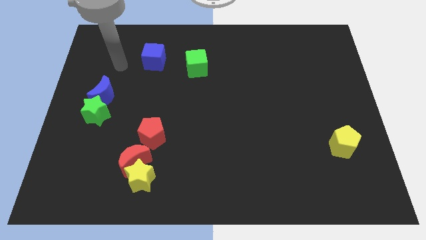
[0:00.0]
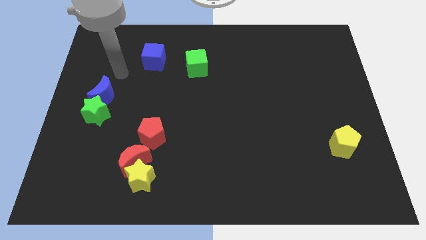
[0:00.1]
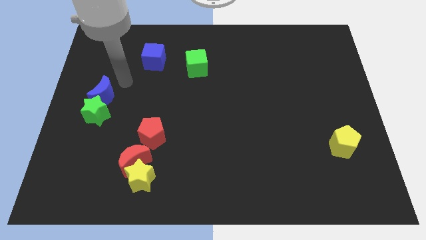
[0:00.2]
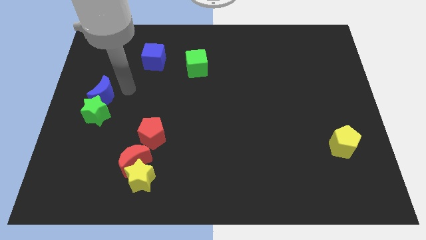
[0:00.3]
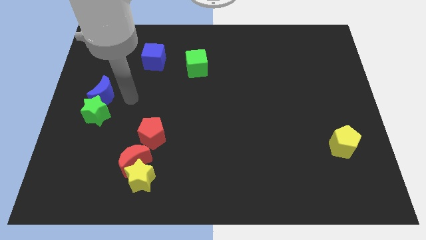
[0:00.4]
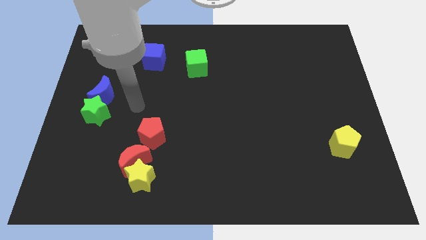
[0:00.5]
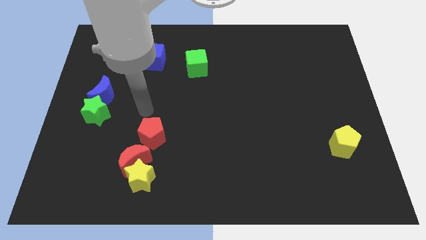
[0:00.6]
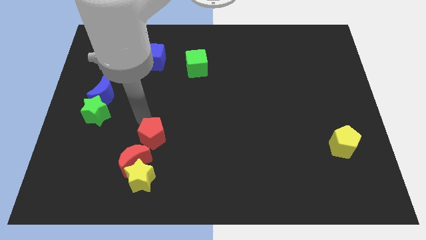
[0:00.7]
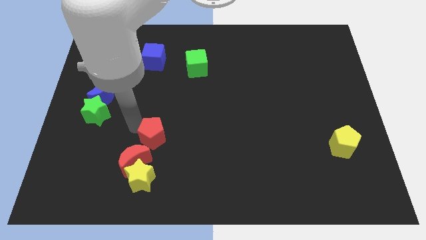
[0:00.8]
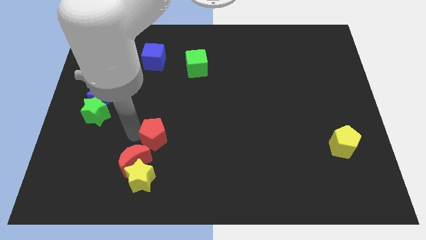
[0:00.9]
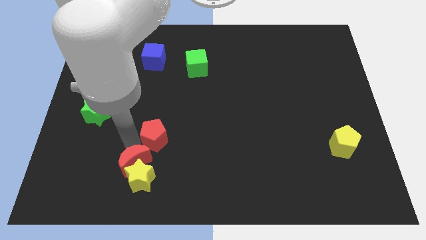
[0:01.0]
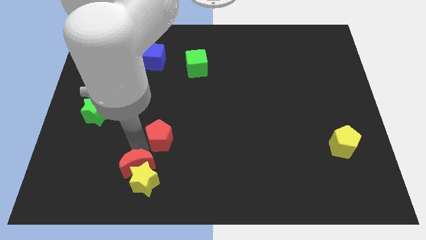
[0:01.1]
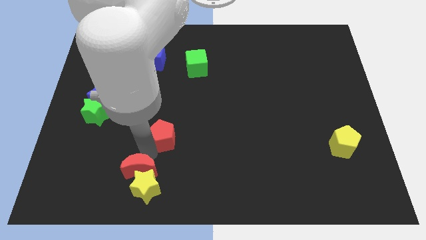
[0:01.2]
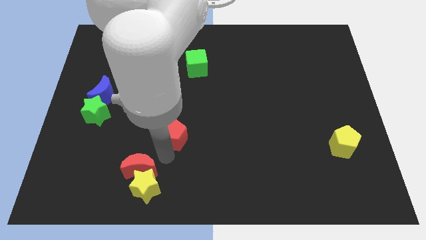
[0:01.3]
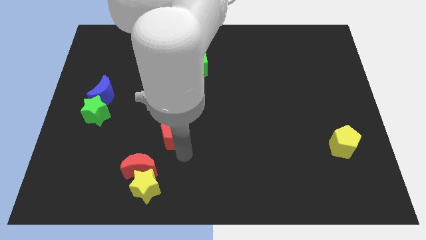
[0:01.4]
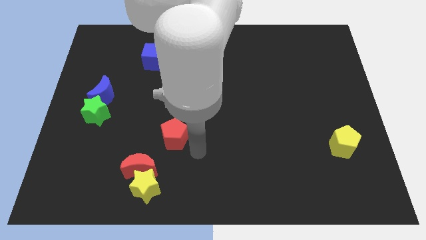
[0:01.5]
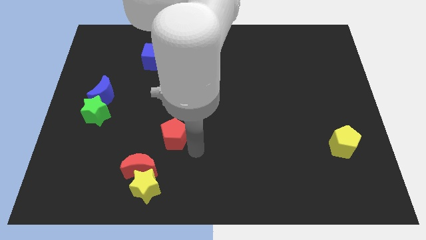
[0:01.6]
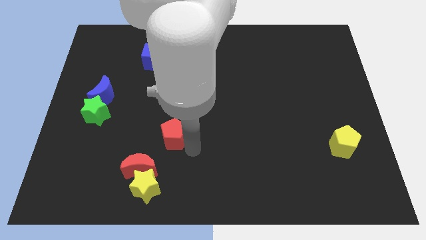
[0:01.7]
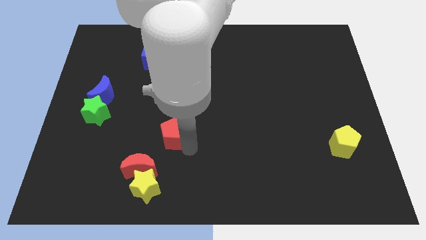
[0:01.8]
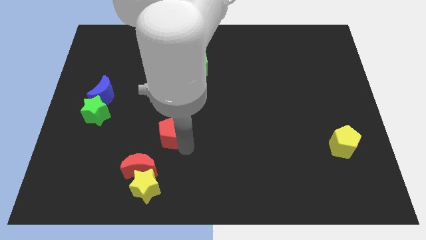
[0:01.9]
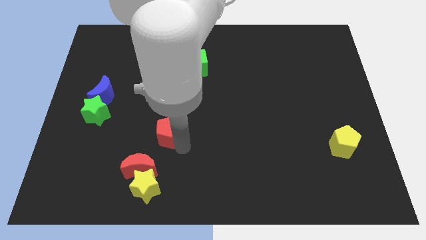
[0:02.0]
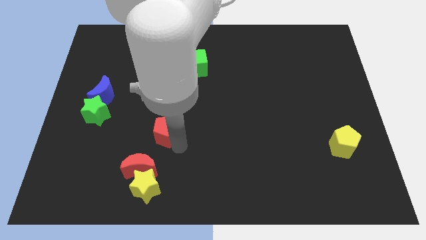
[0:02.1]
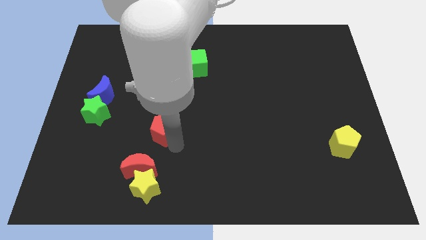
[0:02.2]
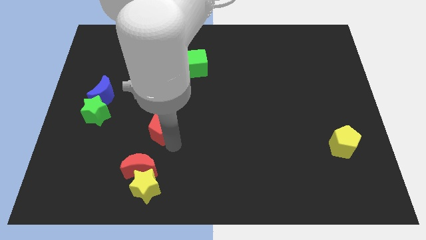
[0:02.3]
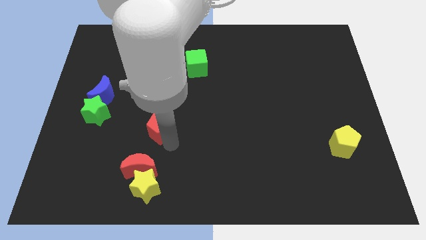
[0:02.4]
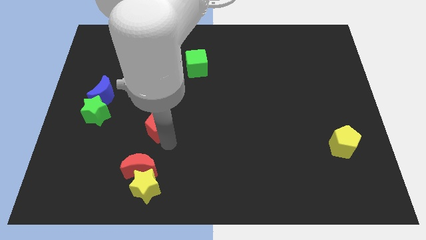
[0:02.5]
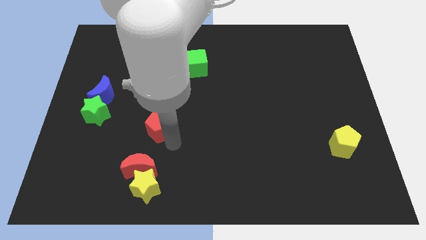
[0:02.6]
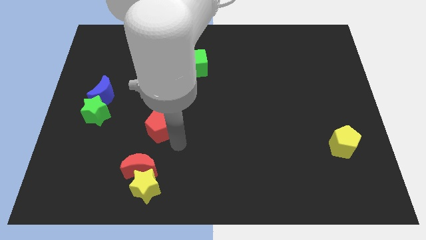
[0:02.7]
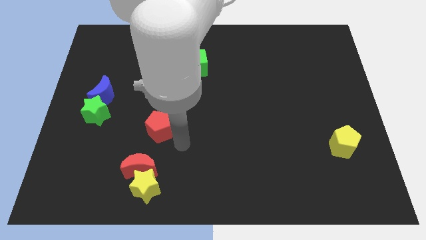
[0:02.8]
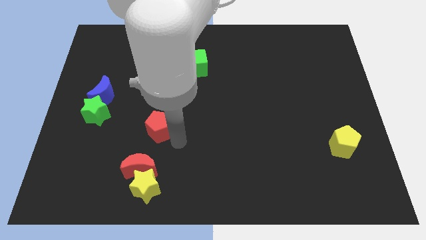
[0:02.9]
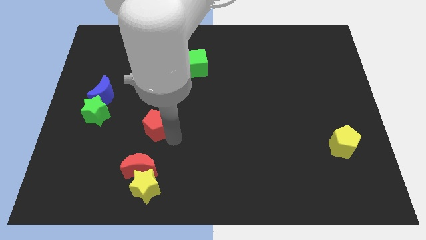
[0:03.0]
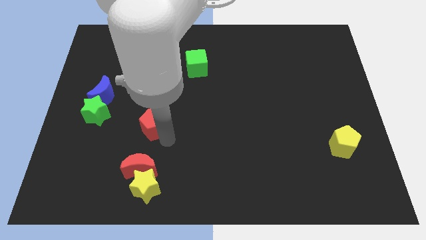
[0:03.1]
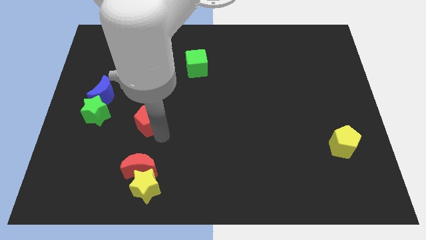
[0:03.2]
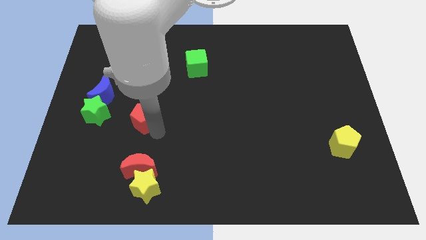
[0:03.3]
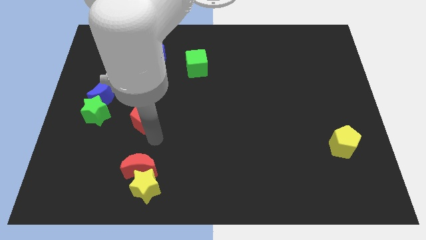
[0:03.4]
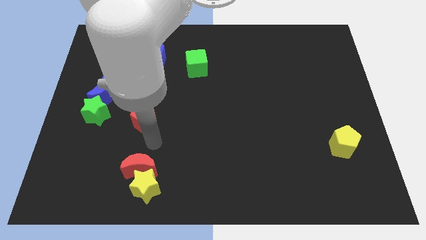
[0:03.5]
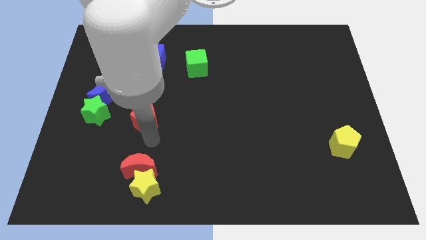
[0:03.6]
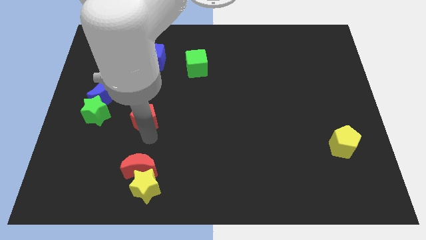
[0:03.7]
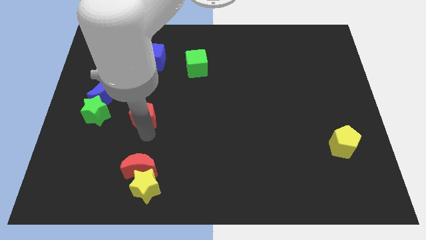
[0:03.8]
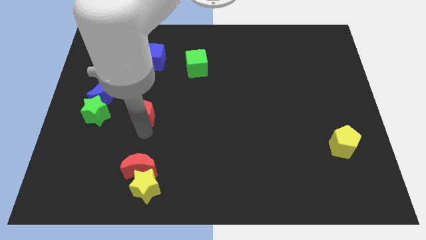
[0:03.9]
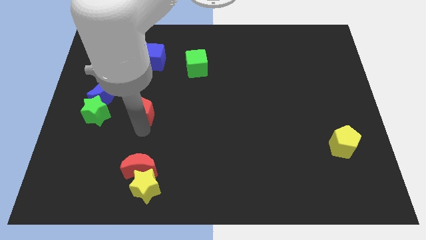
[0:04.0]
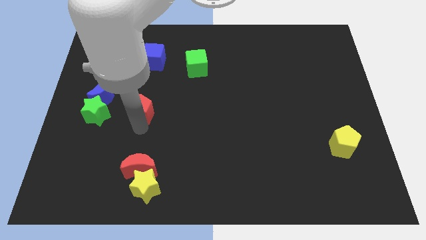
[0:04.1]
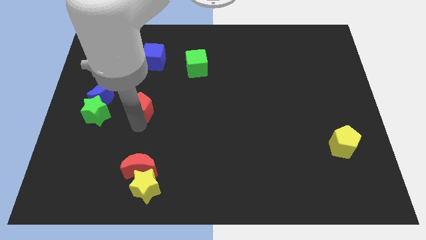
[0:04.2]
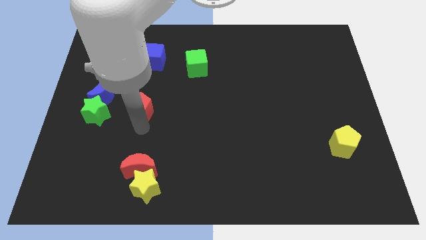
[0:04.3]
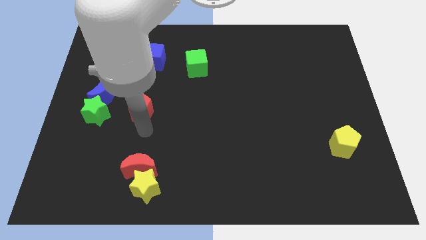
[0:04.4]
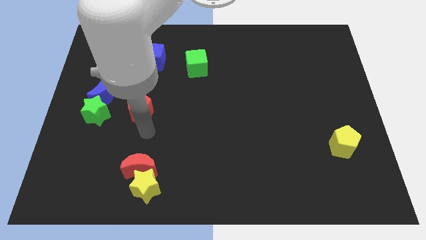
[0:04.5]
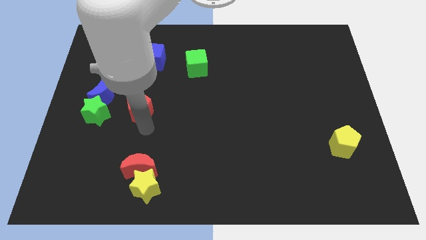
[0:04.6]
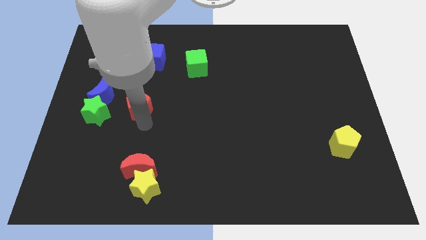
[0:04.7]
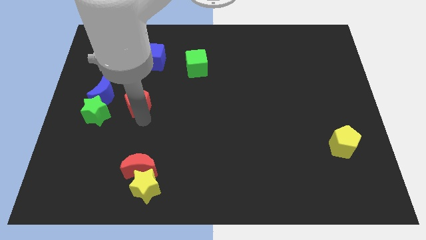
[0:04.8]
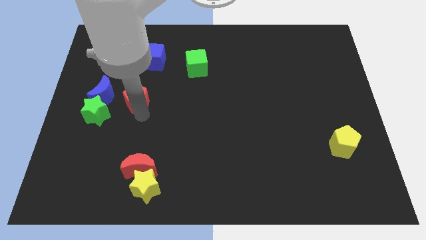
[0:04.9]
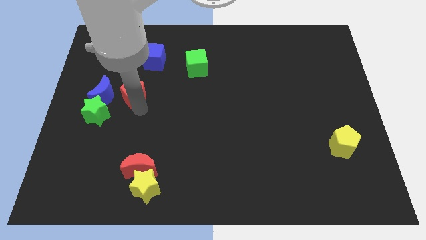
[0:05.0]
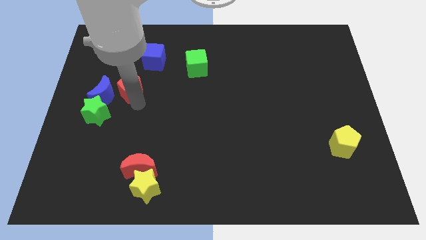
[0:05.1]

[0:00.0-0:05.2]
push the red pentagon diagonally up and to the right of the blue moon

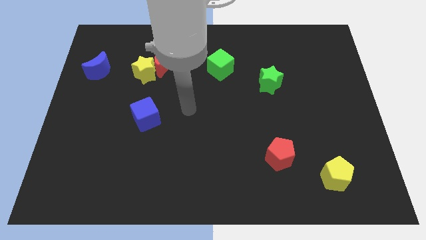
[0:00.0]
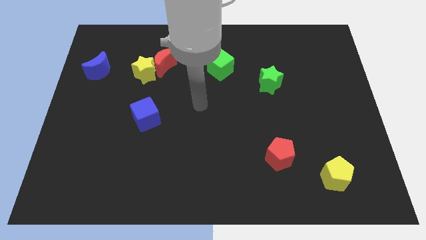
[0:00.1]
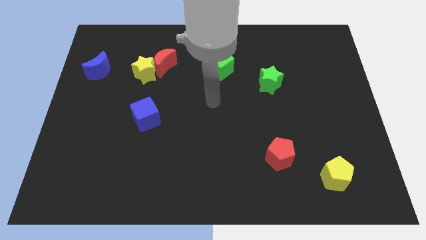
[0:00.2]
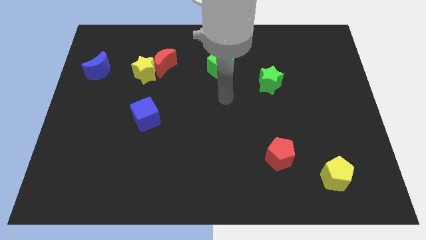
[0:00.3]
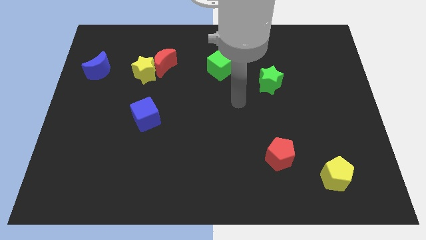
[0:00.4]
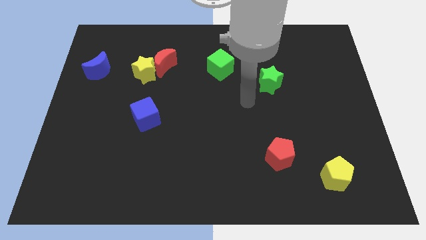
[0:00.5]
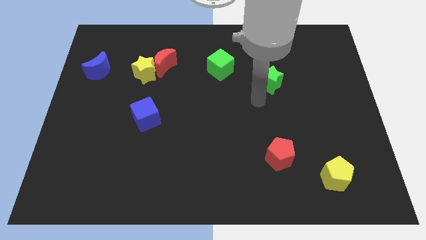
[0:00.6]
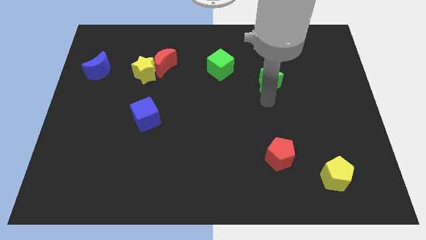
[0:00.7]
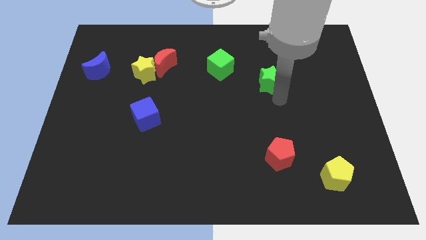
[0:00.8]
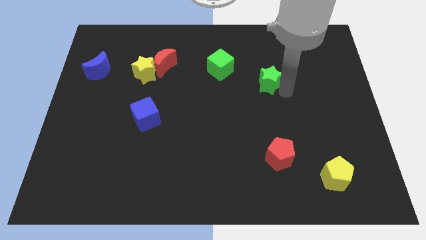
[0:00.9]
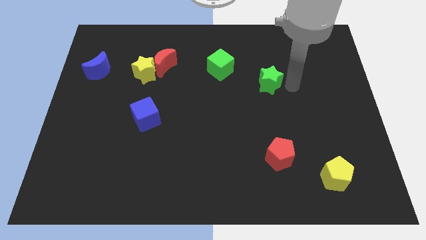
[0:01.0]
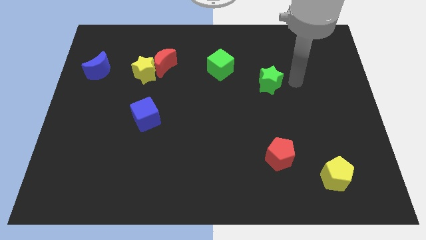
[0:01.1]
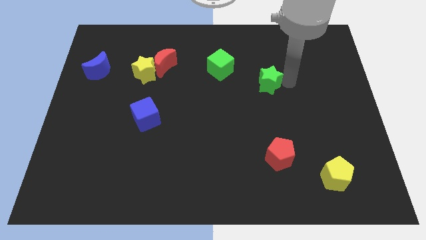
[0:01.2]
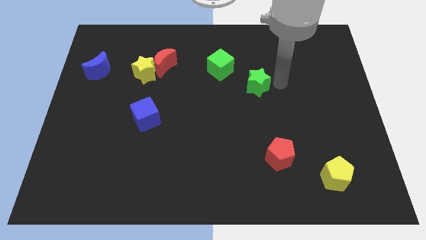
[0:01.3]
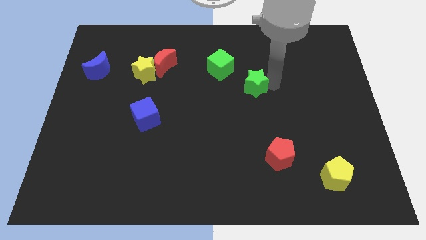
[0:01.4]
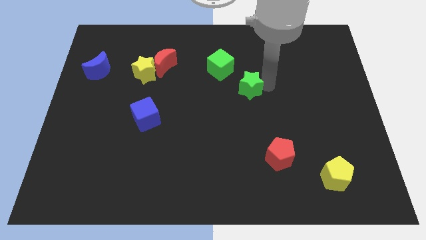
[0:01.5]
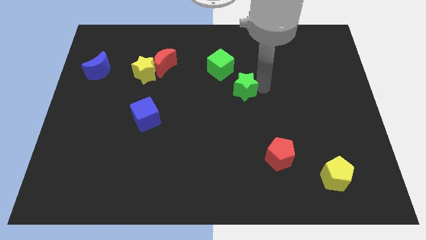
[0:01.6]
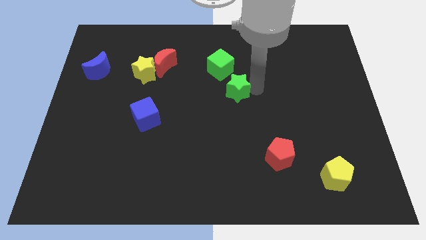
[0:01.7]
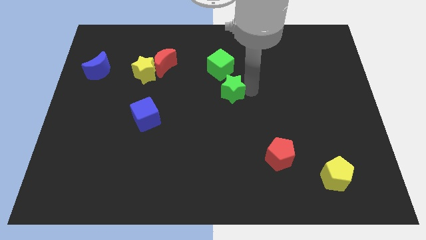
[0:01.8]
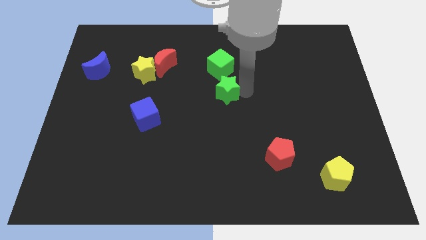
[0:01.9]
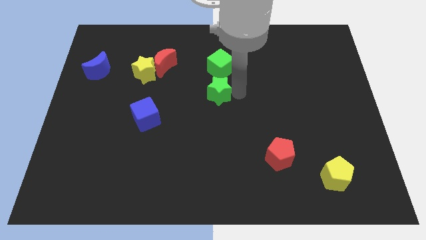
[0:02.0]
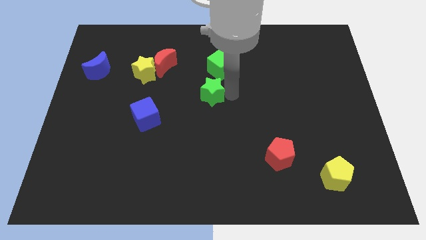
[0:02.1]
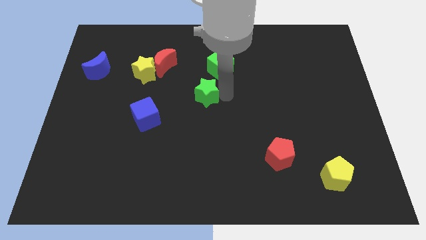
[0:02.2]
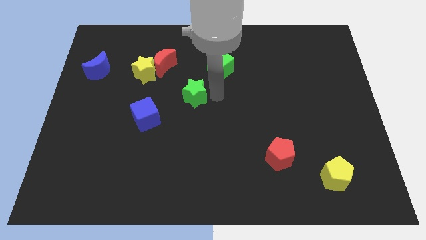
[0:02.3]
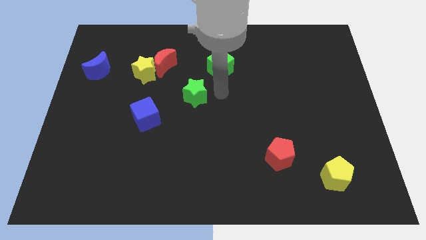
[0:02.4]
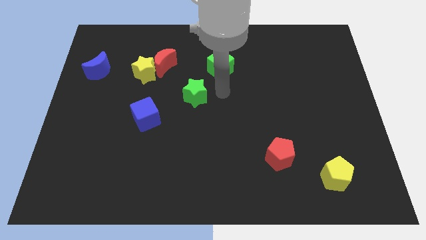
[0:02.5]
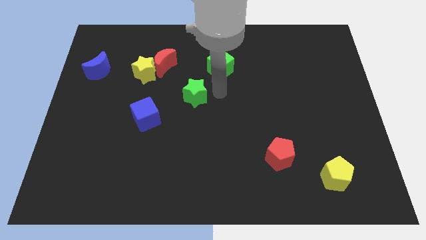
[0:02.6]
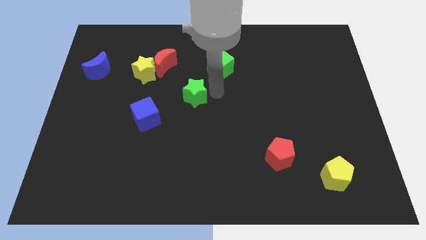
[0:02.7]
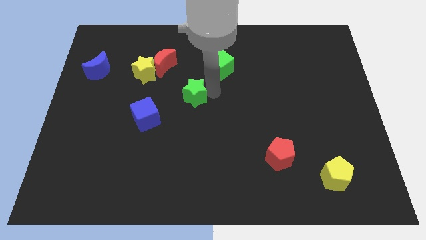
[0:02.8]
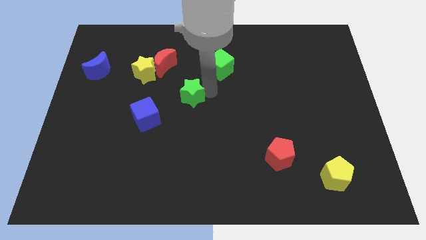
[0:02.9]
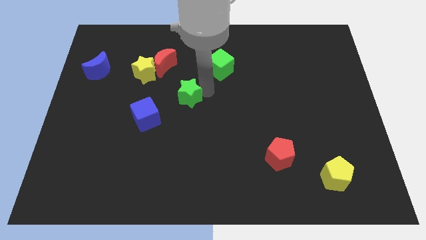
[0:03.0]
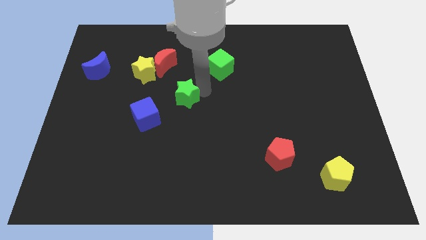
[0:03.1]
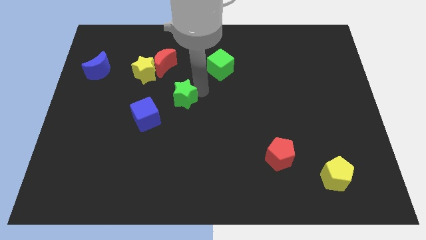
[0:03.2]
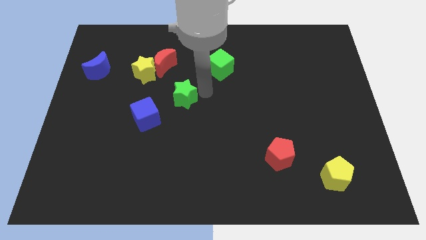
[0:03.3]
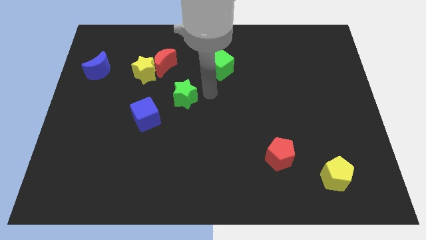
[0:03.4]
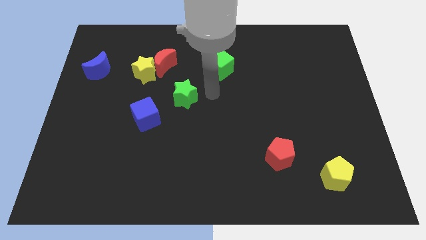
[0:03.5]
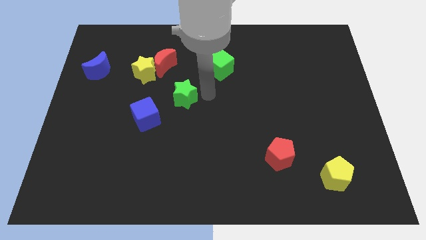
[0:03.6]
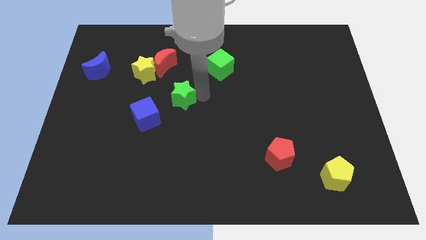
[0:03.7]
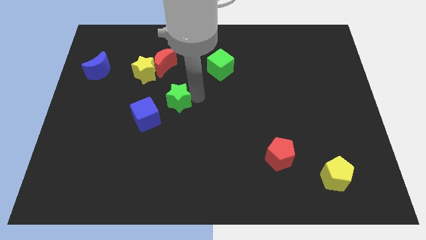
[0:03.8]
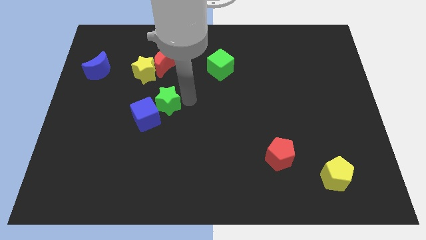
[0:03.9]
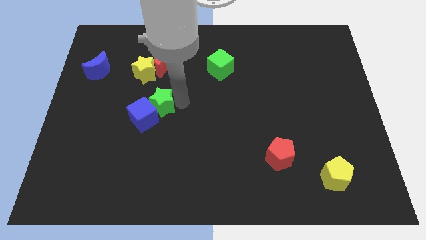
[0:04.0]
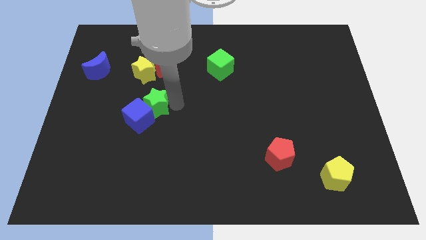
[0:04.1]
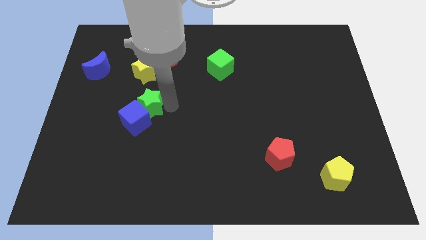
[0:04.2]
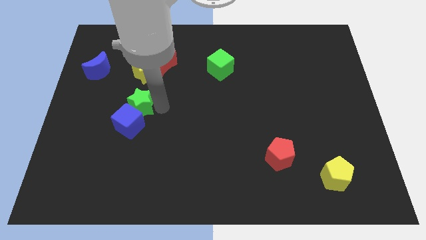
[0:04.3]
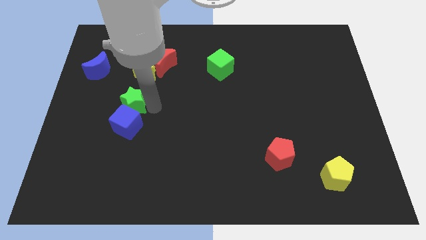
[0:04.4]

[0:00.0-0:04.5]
push the green star to the top left side of the blue cube
